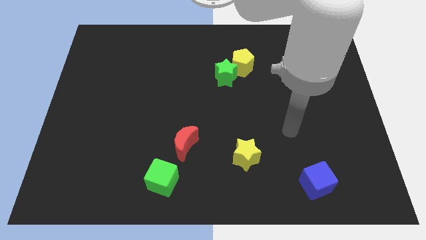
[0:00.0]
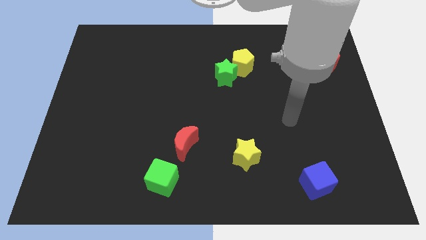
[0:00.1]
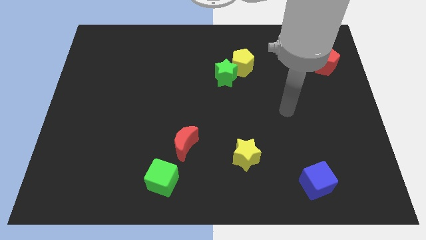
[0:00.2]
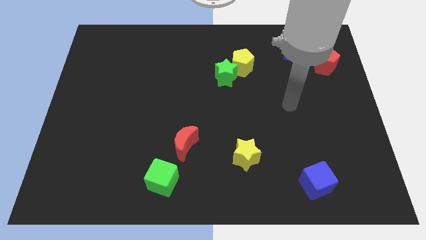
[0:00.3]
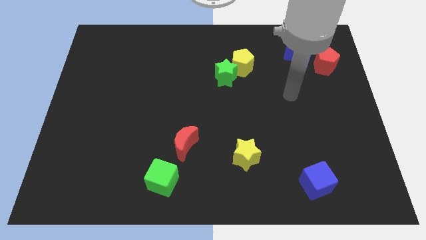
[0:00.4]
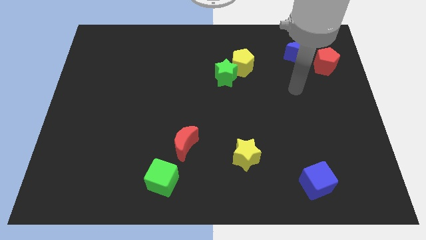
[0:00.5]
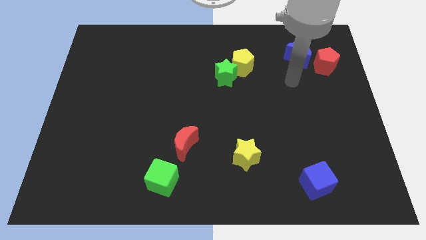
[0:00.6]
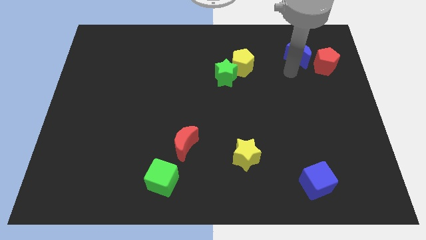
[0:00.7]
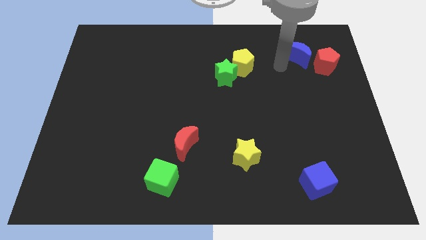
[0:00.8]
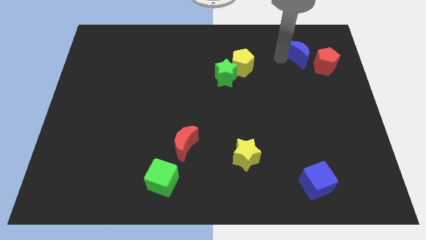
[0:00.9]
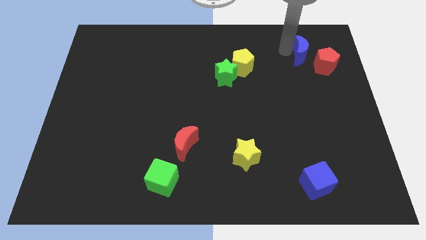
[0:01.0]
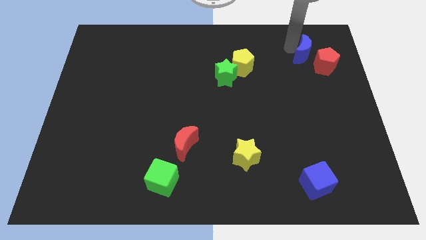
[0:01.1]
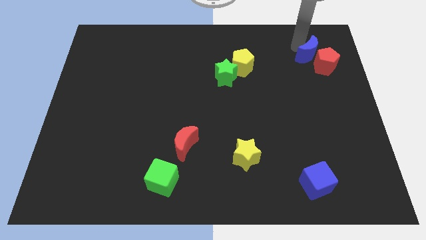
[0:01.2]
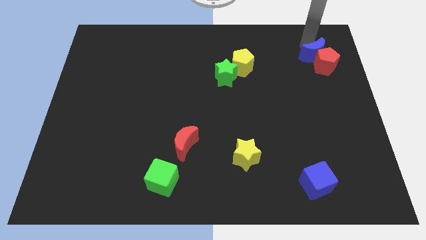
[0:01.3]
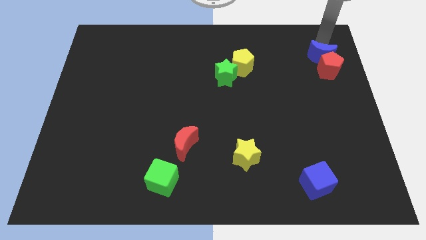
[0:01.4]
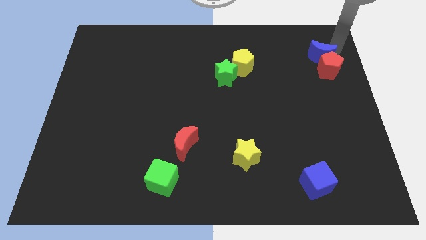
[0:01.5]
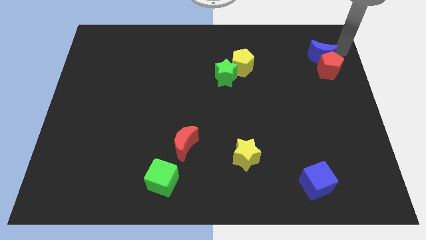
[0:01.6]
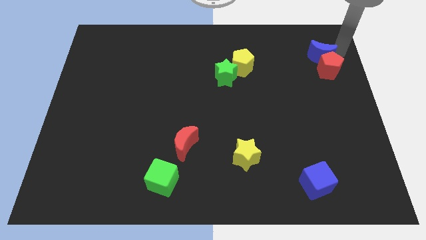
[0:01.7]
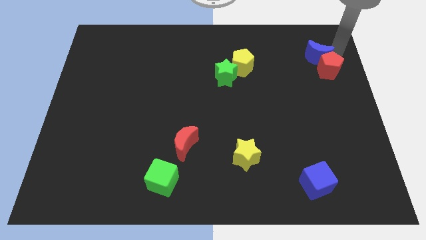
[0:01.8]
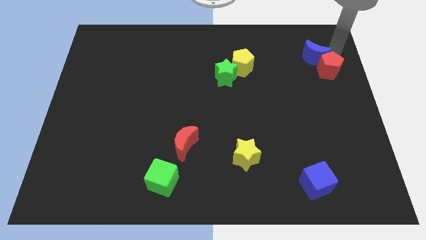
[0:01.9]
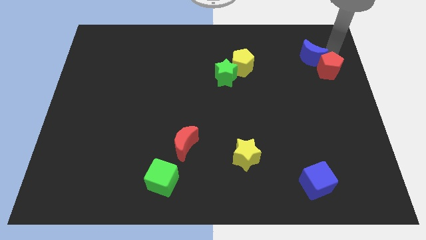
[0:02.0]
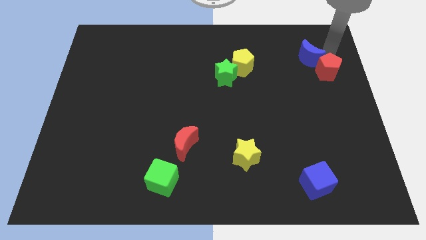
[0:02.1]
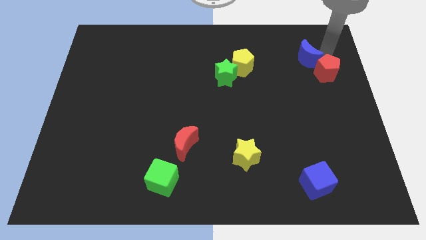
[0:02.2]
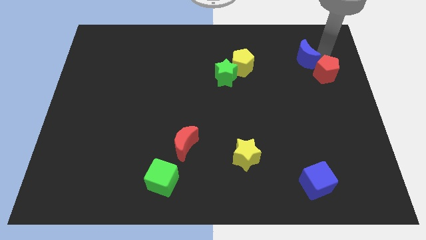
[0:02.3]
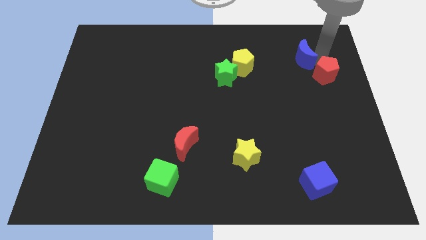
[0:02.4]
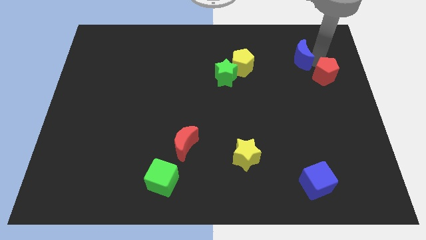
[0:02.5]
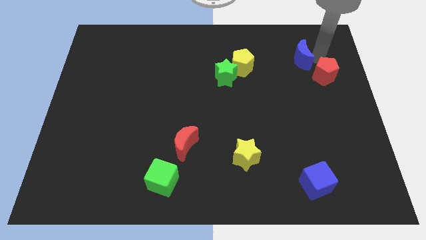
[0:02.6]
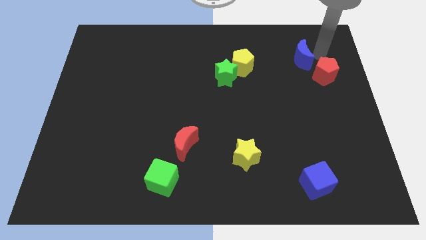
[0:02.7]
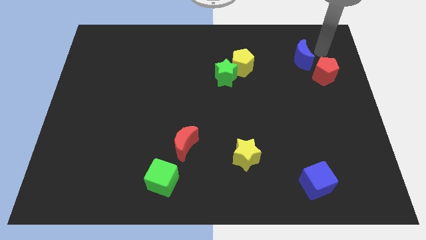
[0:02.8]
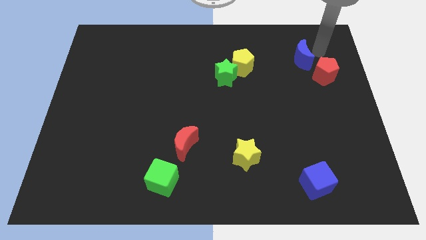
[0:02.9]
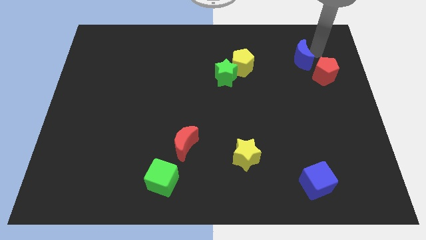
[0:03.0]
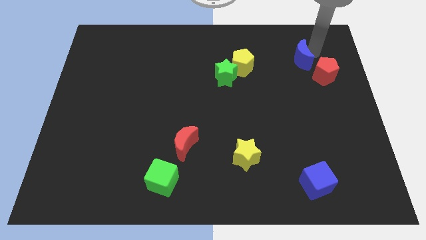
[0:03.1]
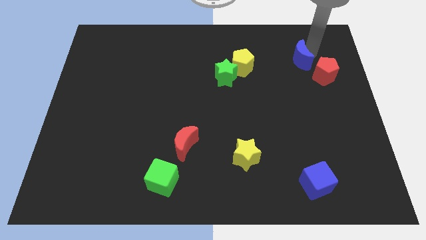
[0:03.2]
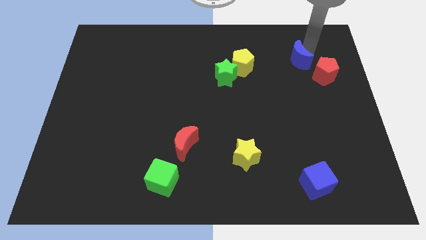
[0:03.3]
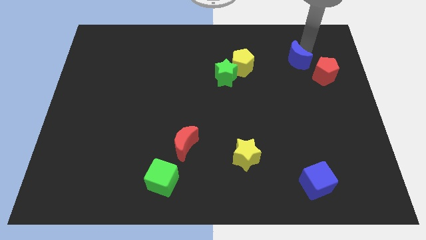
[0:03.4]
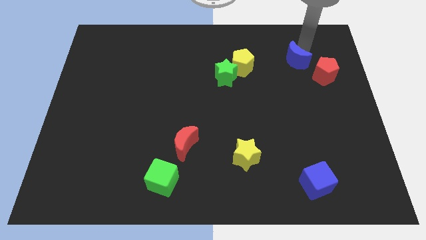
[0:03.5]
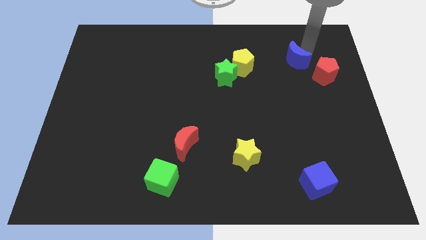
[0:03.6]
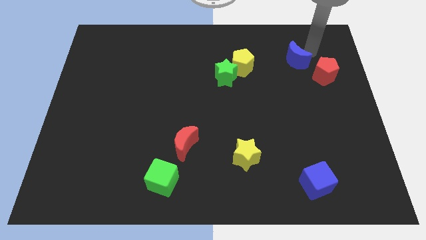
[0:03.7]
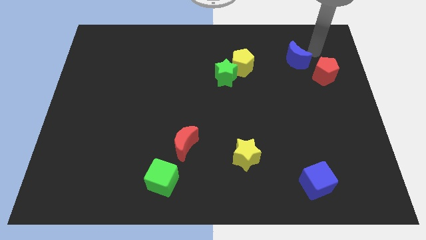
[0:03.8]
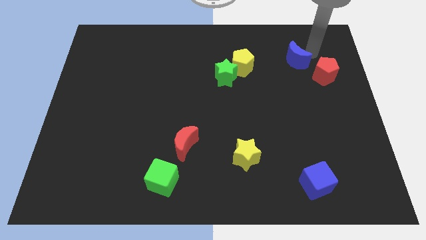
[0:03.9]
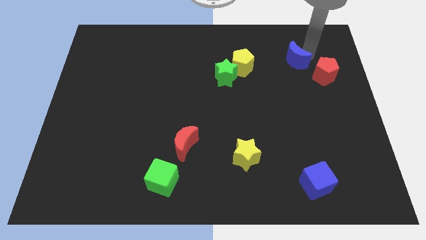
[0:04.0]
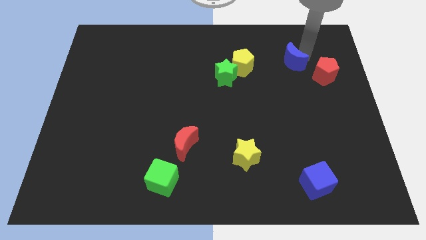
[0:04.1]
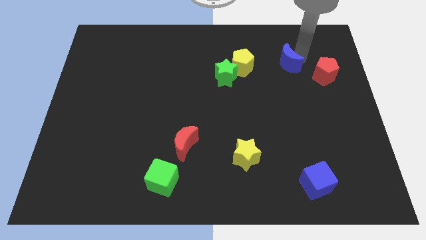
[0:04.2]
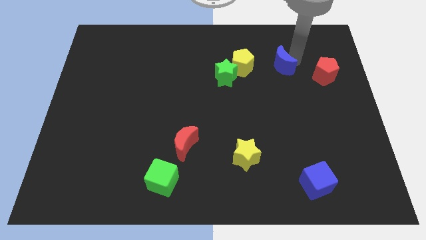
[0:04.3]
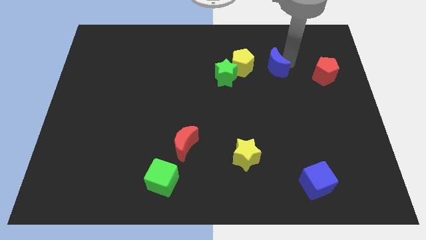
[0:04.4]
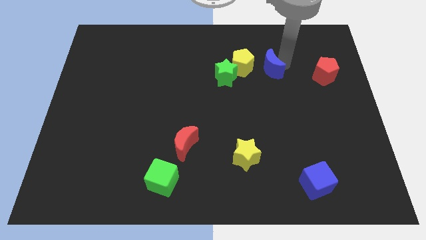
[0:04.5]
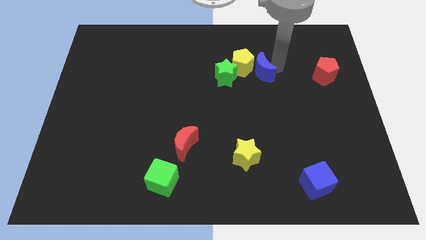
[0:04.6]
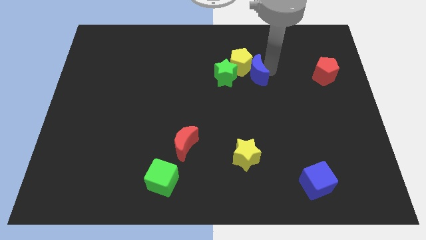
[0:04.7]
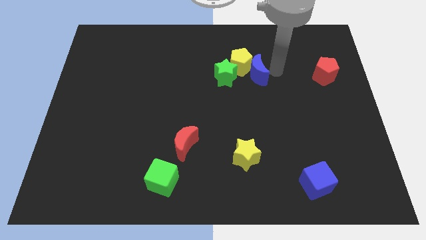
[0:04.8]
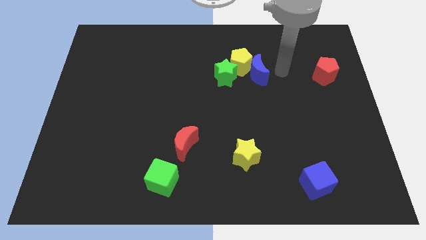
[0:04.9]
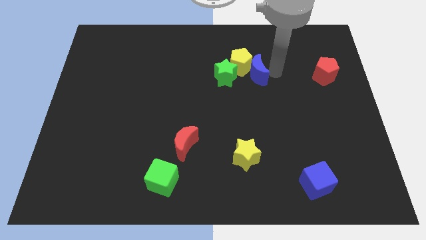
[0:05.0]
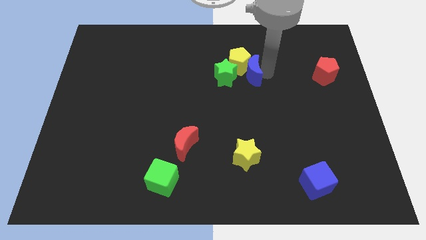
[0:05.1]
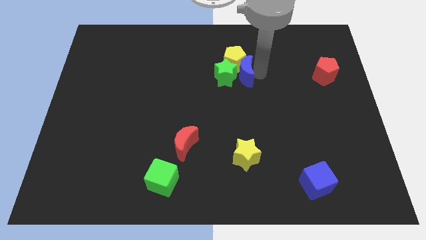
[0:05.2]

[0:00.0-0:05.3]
move the blue moon to the green star
